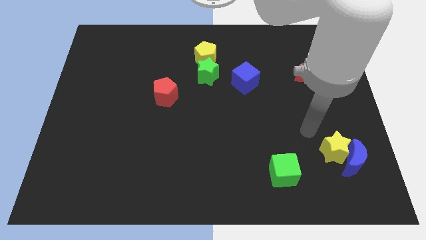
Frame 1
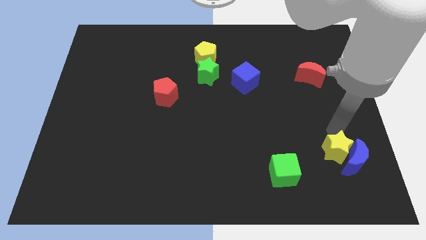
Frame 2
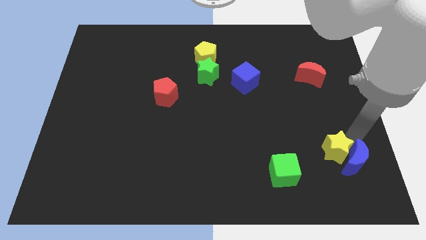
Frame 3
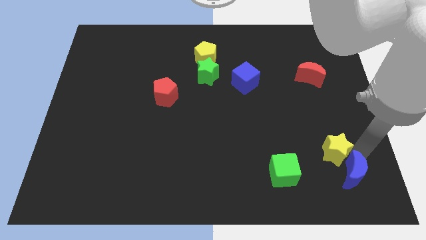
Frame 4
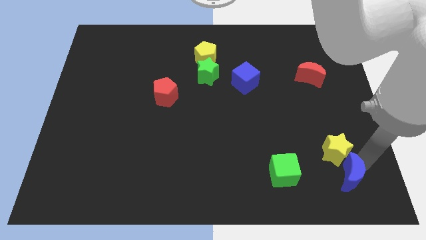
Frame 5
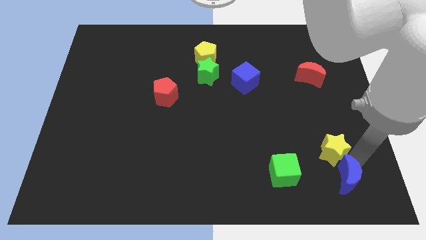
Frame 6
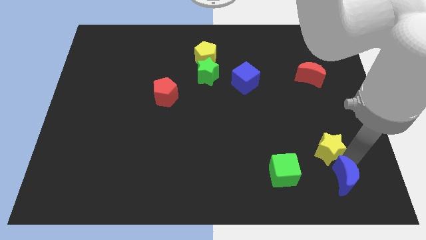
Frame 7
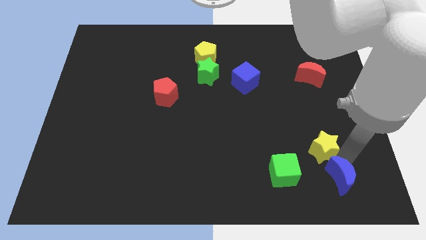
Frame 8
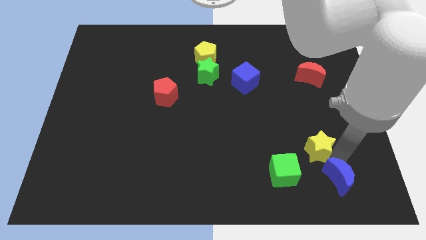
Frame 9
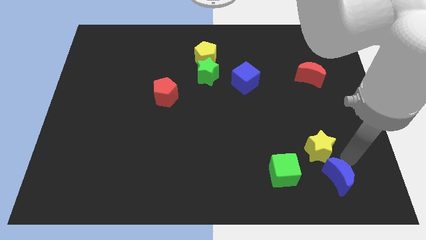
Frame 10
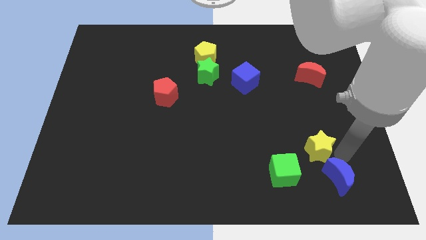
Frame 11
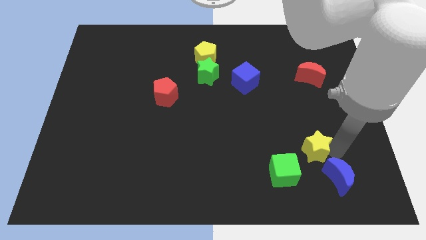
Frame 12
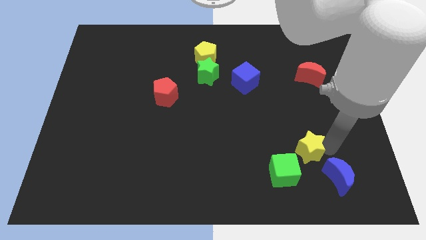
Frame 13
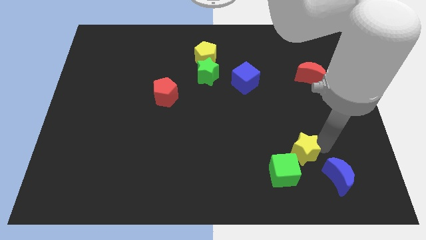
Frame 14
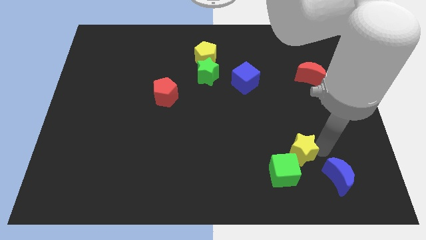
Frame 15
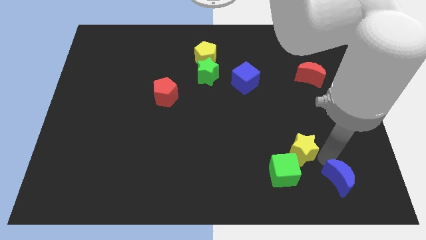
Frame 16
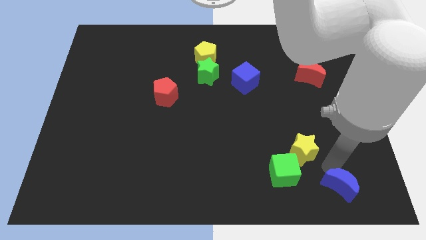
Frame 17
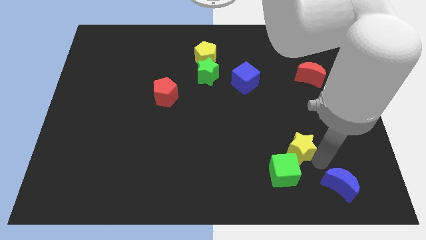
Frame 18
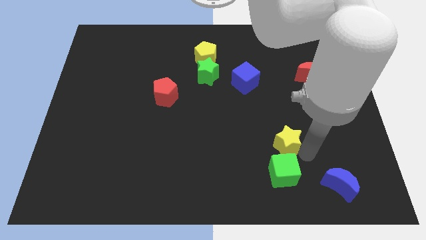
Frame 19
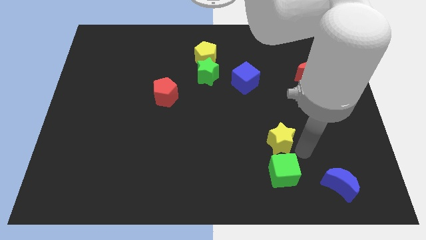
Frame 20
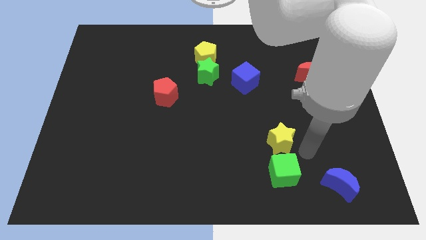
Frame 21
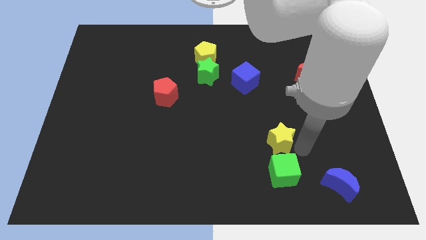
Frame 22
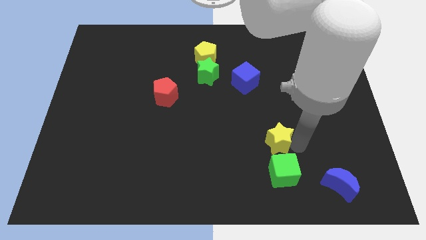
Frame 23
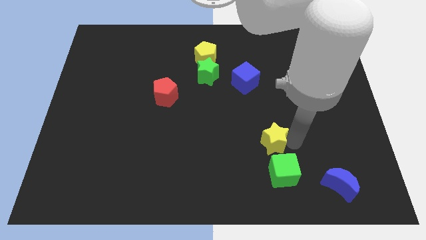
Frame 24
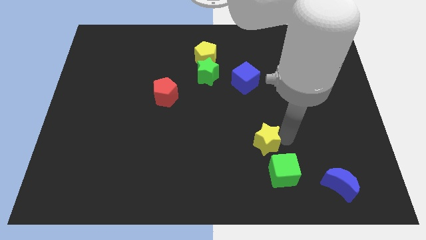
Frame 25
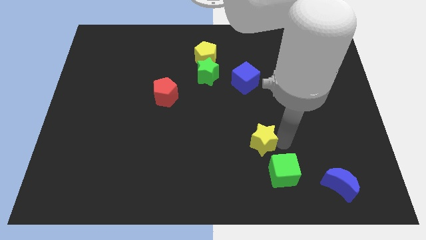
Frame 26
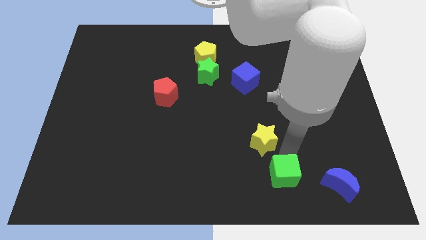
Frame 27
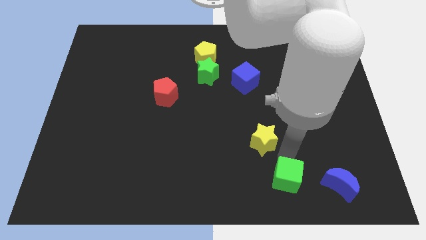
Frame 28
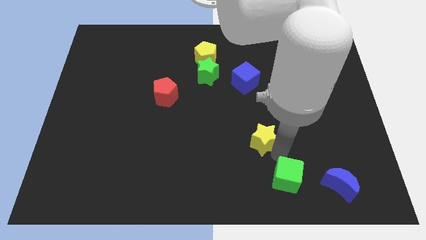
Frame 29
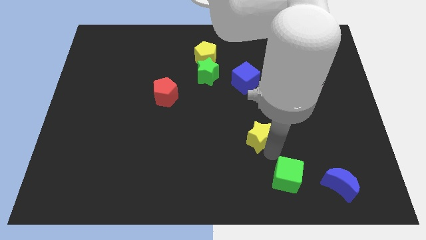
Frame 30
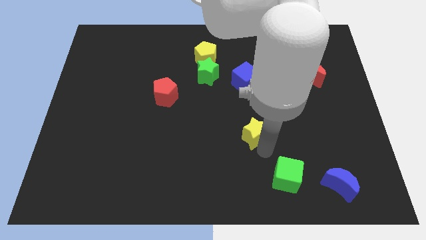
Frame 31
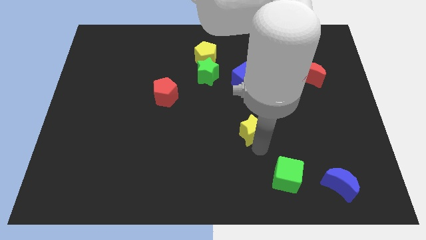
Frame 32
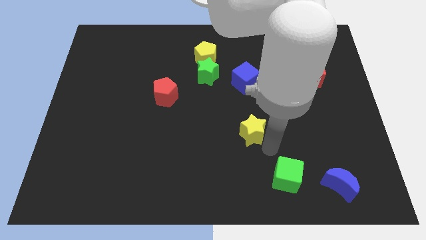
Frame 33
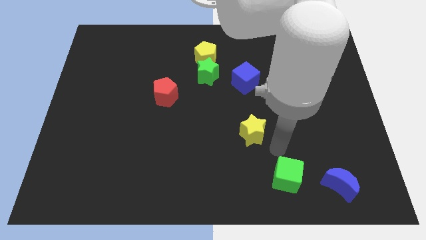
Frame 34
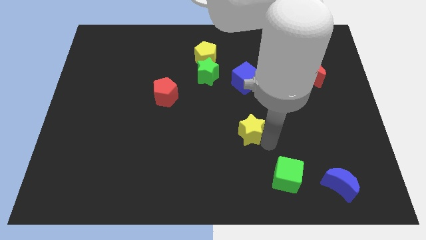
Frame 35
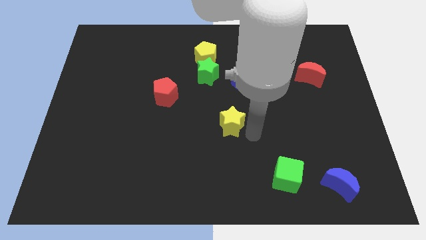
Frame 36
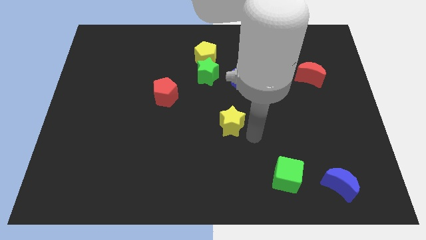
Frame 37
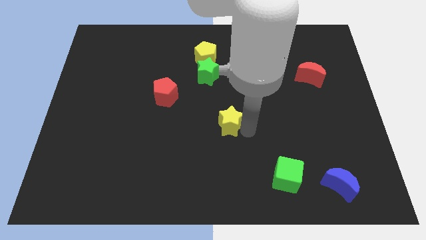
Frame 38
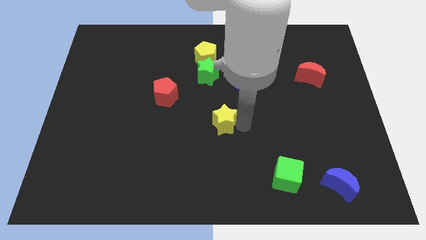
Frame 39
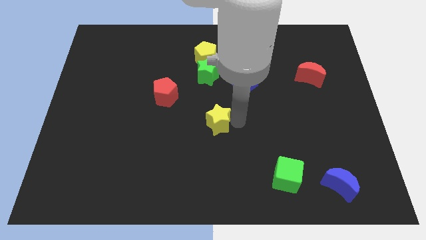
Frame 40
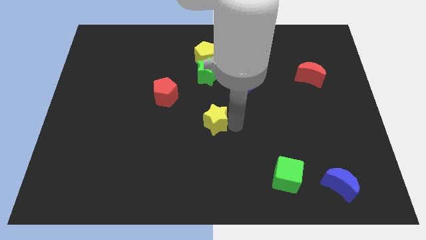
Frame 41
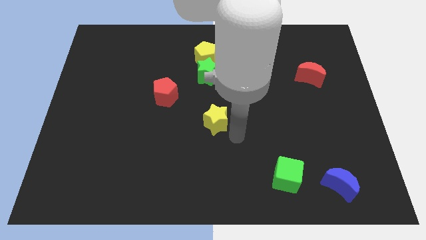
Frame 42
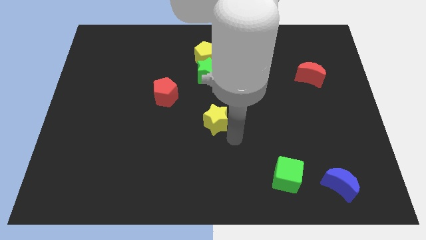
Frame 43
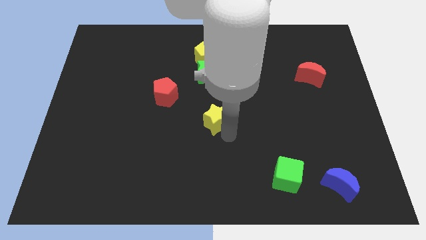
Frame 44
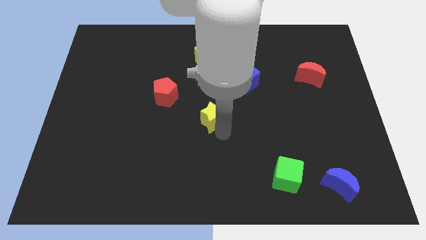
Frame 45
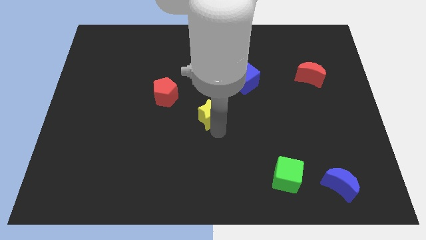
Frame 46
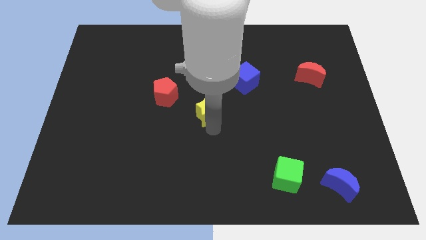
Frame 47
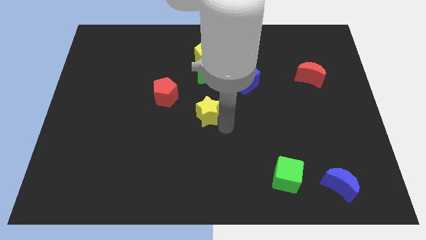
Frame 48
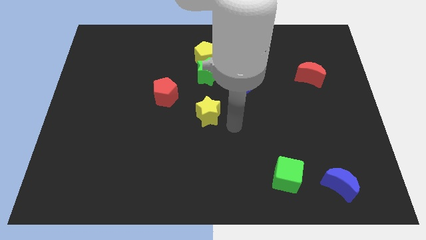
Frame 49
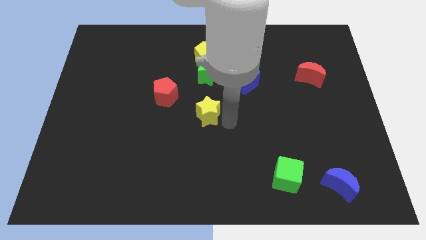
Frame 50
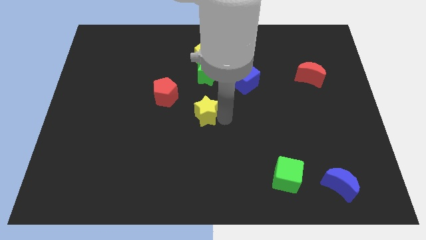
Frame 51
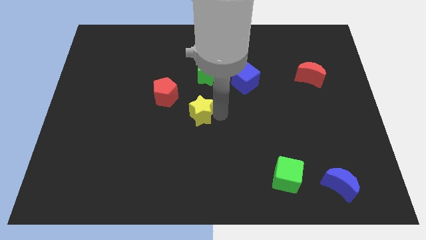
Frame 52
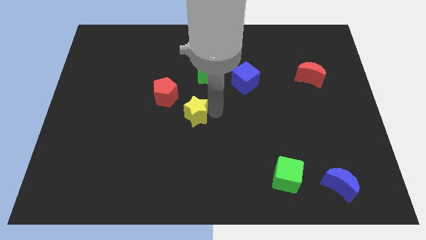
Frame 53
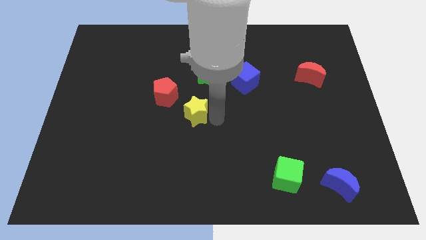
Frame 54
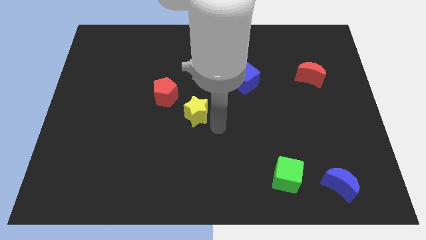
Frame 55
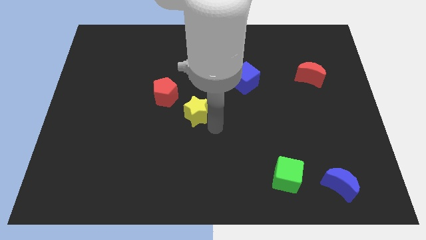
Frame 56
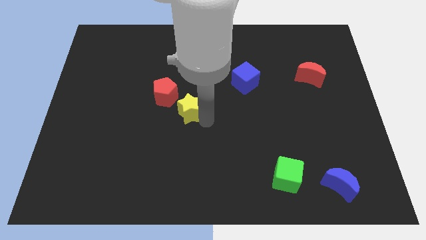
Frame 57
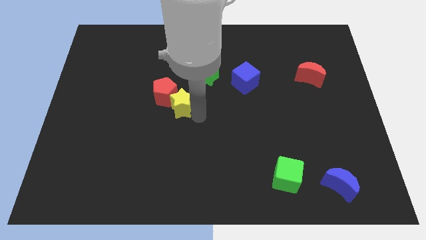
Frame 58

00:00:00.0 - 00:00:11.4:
move the yellow star close to the red pentagon

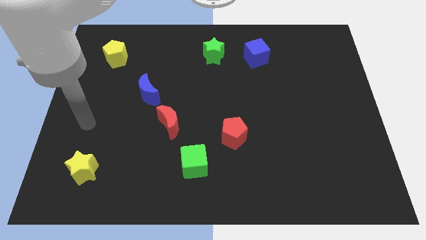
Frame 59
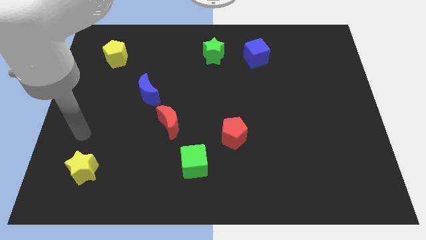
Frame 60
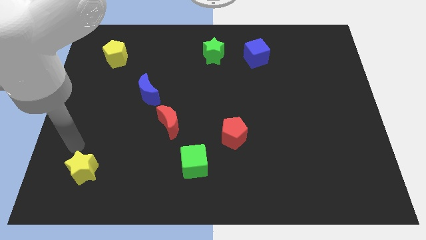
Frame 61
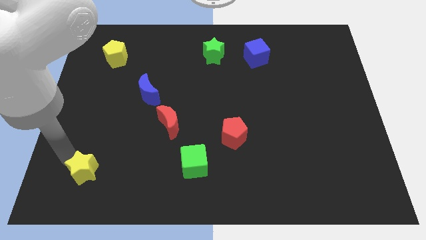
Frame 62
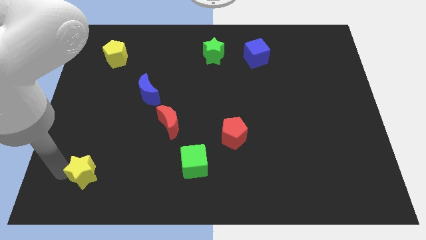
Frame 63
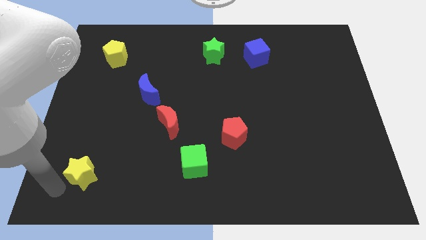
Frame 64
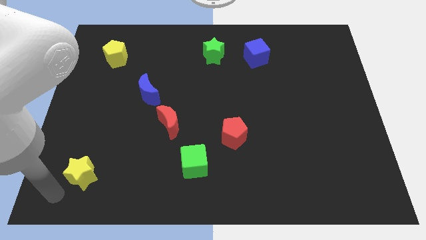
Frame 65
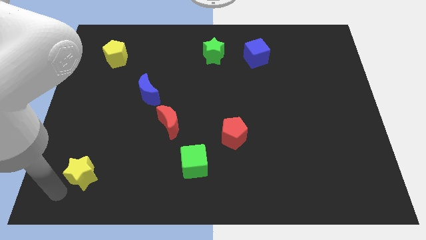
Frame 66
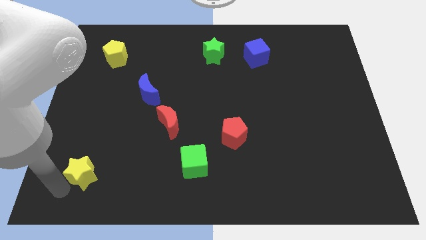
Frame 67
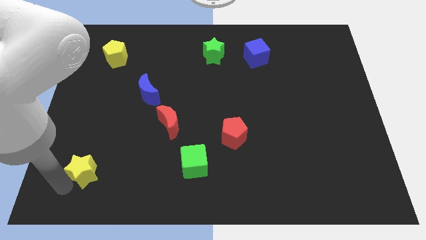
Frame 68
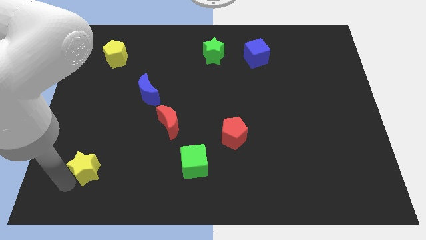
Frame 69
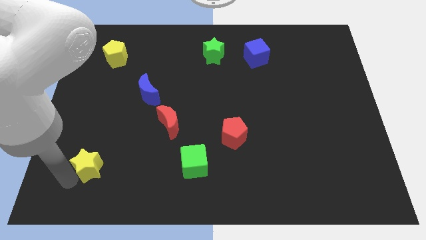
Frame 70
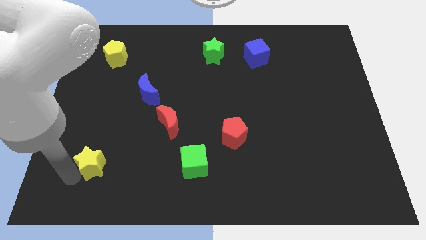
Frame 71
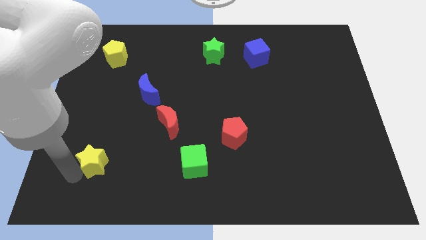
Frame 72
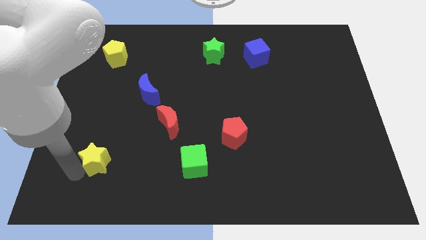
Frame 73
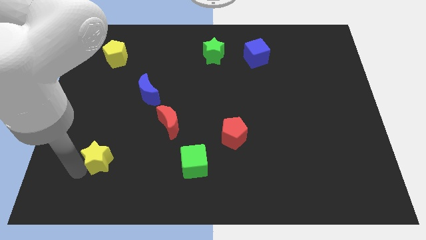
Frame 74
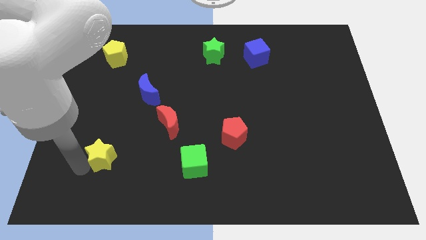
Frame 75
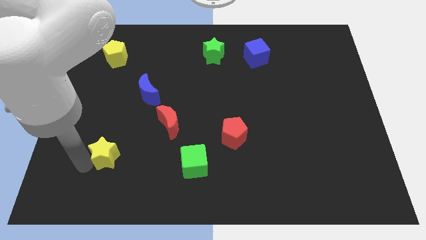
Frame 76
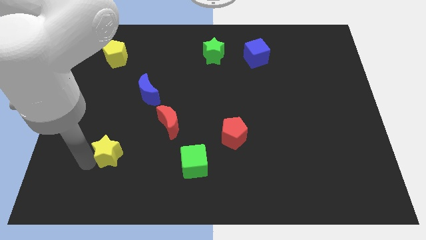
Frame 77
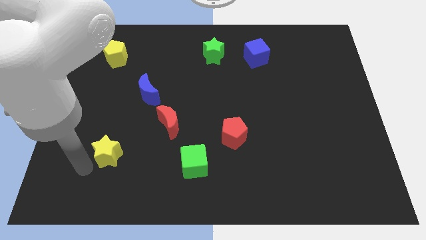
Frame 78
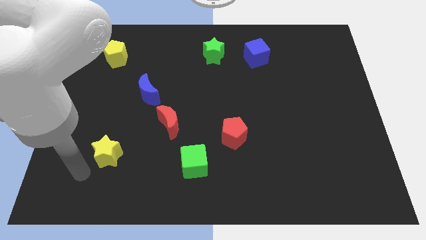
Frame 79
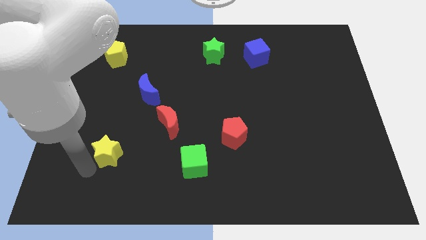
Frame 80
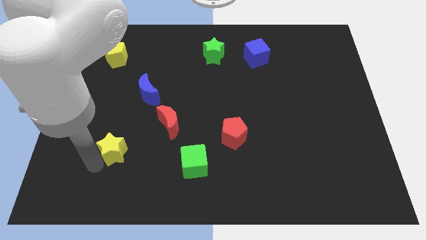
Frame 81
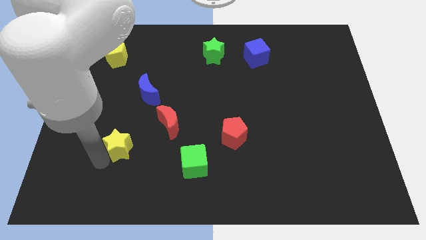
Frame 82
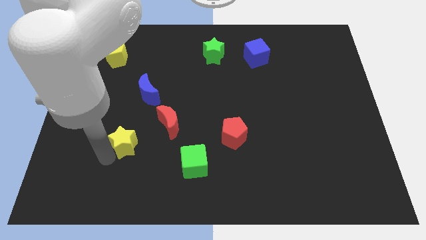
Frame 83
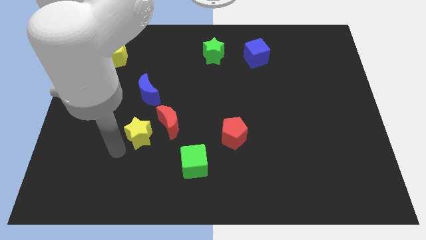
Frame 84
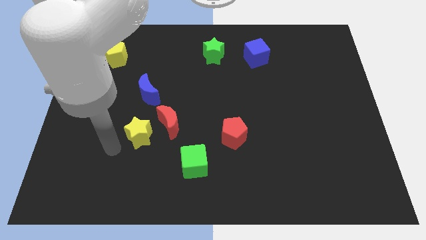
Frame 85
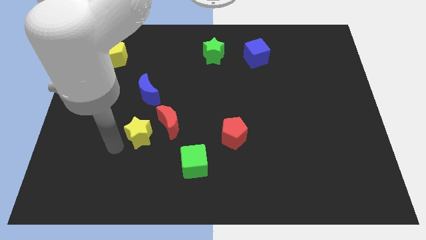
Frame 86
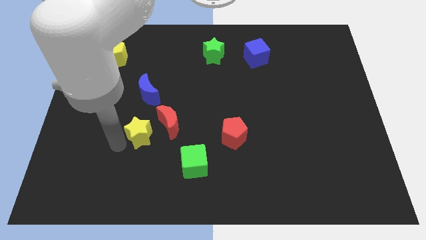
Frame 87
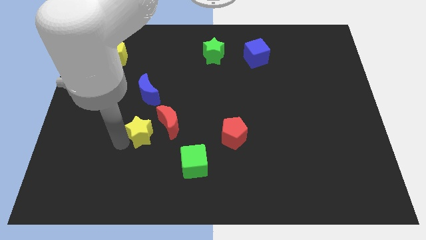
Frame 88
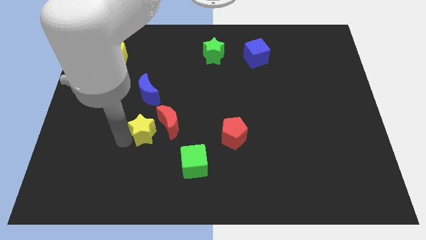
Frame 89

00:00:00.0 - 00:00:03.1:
slide the yellow star towards the red moon
